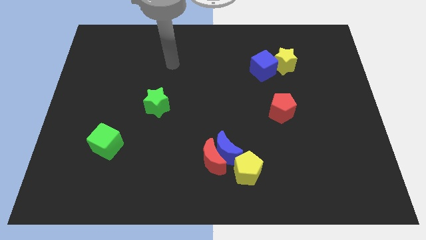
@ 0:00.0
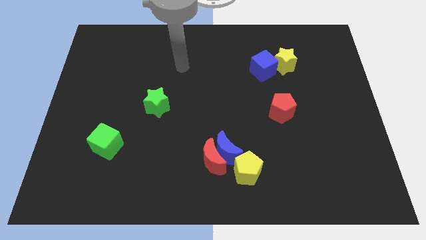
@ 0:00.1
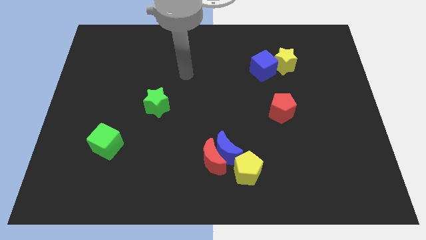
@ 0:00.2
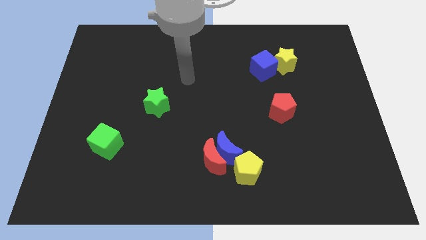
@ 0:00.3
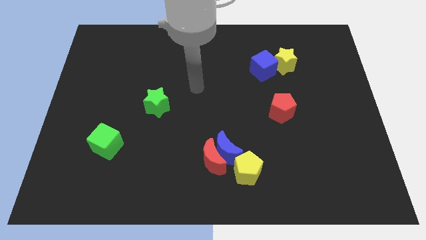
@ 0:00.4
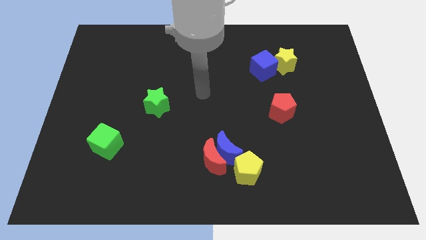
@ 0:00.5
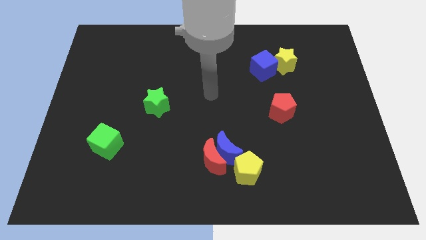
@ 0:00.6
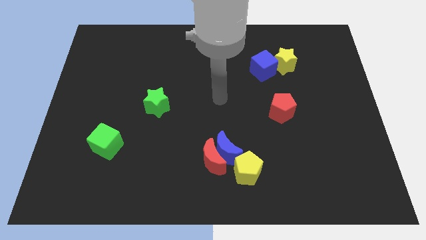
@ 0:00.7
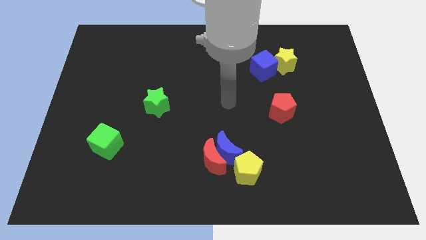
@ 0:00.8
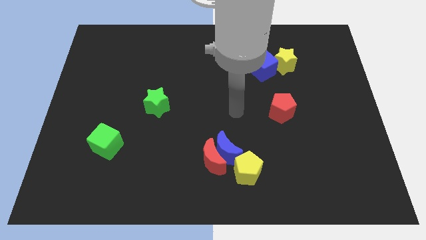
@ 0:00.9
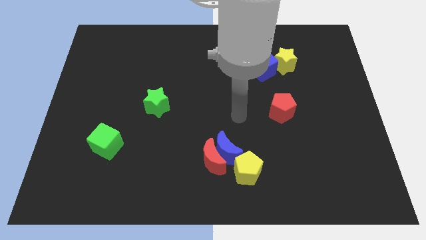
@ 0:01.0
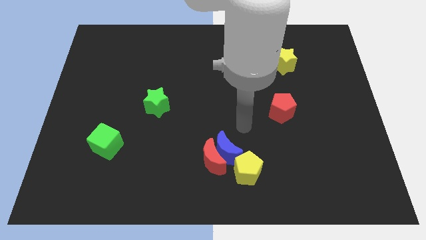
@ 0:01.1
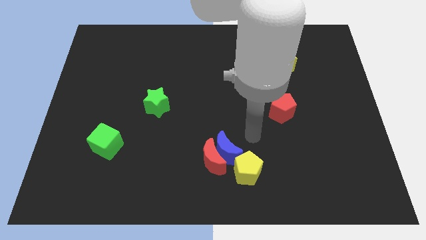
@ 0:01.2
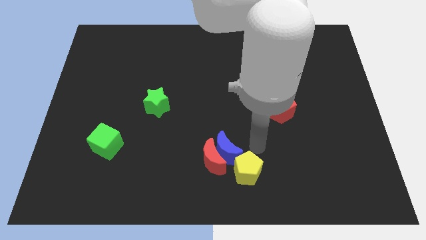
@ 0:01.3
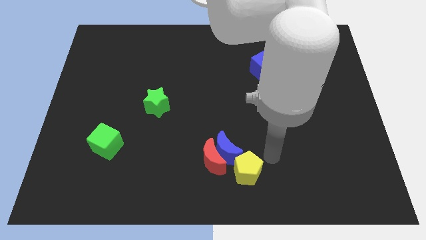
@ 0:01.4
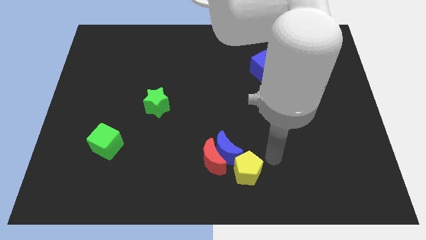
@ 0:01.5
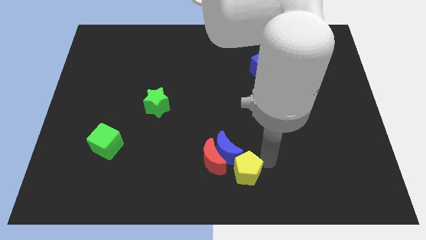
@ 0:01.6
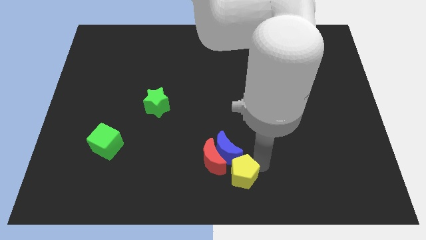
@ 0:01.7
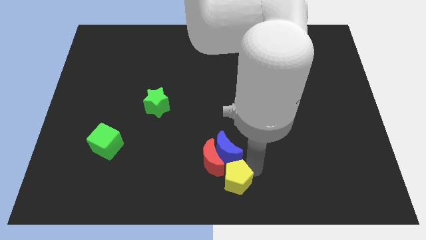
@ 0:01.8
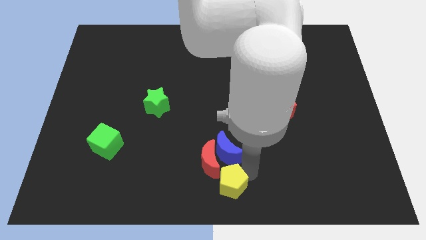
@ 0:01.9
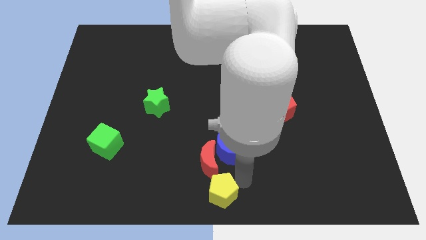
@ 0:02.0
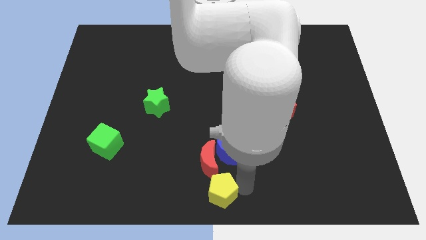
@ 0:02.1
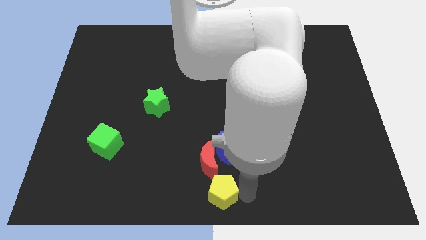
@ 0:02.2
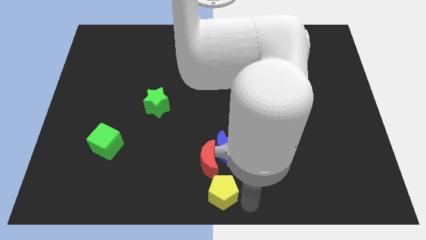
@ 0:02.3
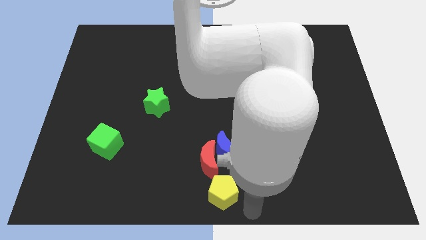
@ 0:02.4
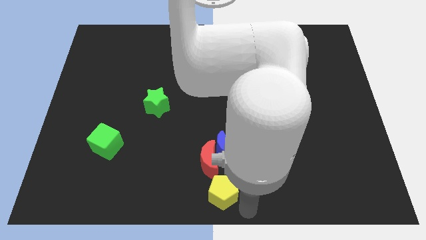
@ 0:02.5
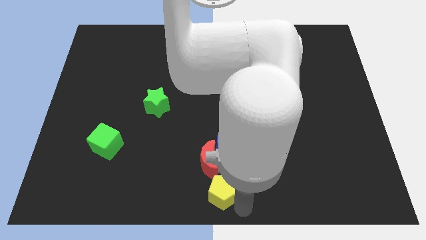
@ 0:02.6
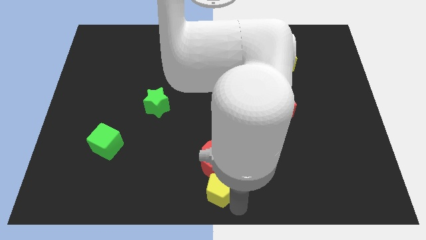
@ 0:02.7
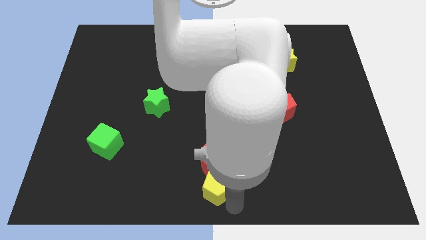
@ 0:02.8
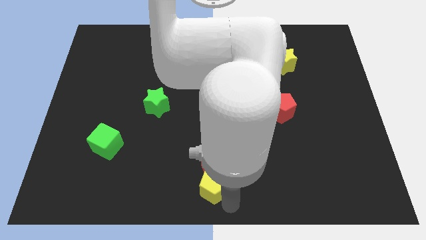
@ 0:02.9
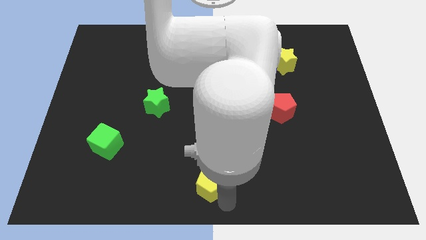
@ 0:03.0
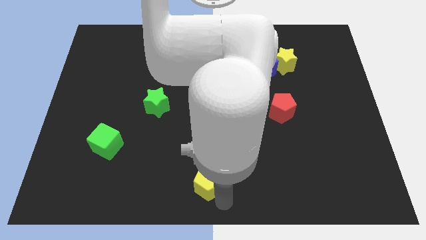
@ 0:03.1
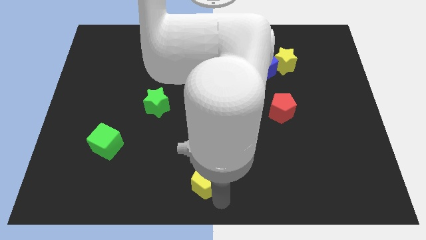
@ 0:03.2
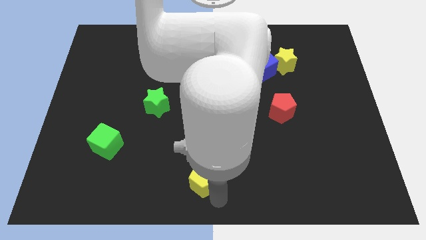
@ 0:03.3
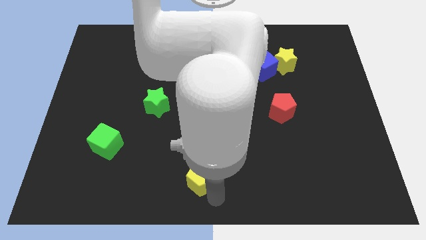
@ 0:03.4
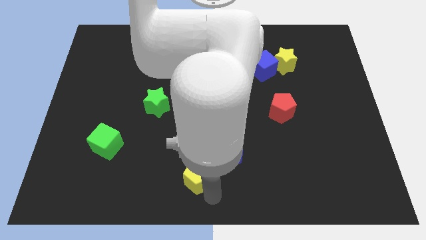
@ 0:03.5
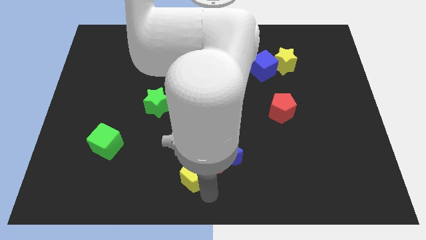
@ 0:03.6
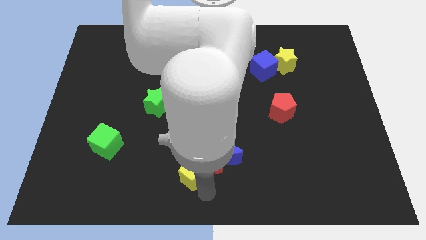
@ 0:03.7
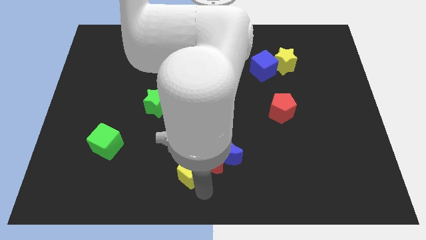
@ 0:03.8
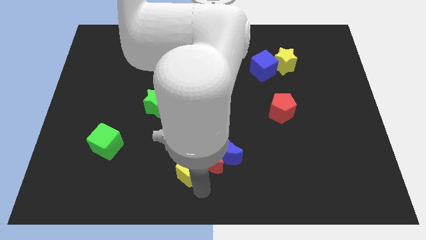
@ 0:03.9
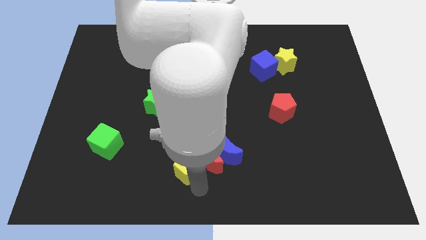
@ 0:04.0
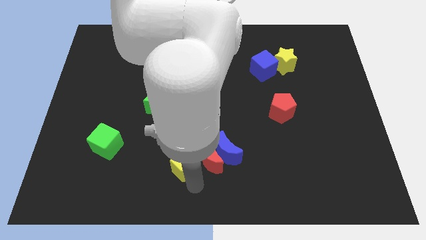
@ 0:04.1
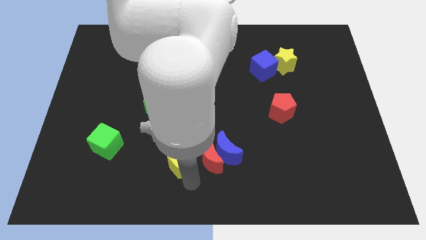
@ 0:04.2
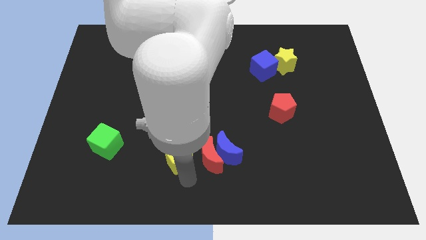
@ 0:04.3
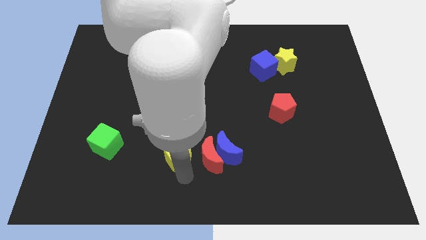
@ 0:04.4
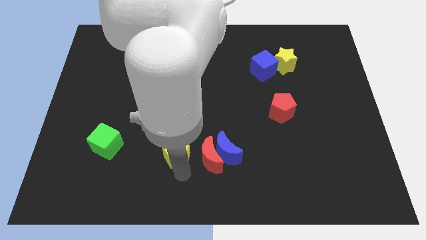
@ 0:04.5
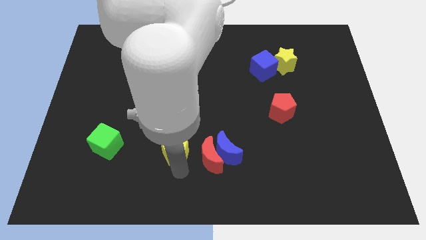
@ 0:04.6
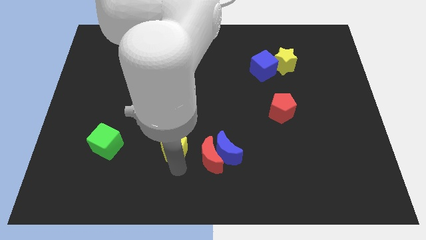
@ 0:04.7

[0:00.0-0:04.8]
push the yellow pentagon to the bottom side of the green star

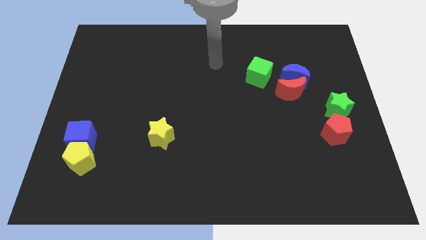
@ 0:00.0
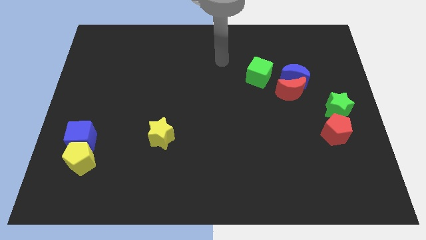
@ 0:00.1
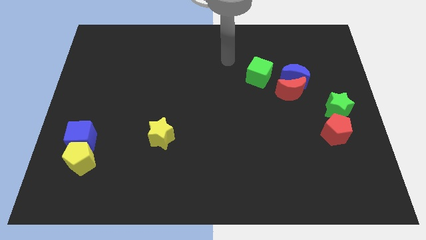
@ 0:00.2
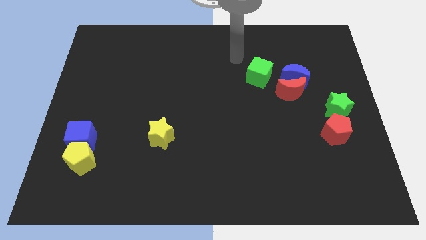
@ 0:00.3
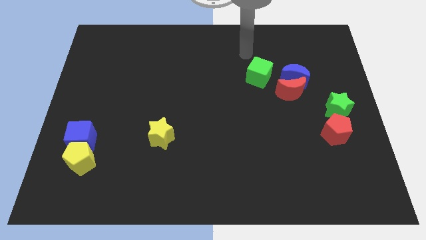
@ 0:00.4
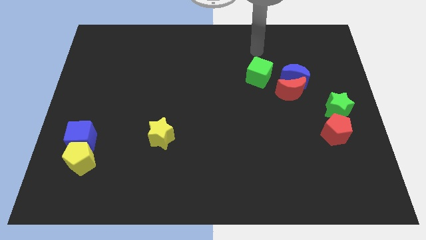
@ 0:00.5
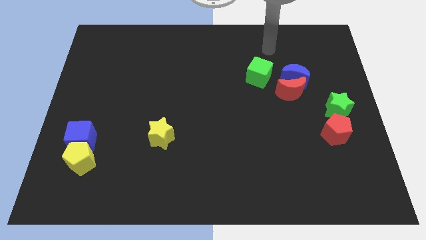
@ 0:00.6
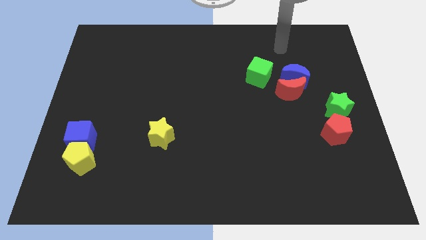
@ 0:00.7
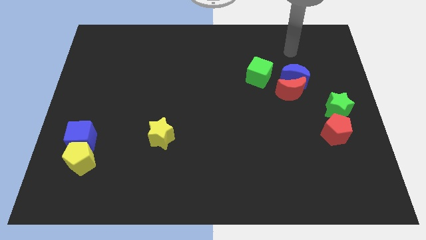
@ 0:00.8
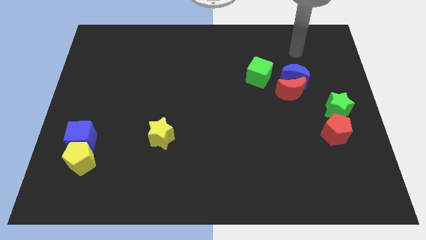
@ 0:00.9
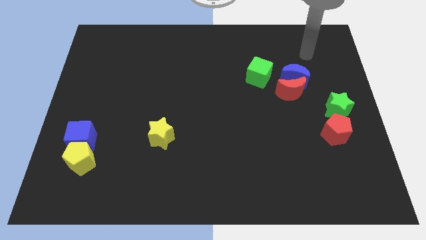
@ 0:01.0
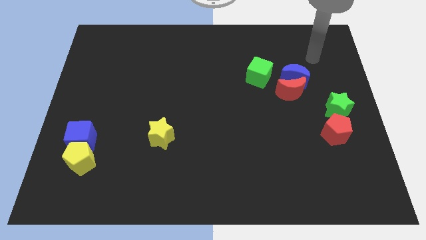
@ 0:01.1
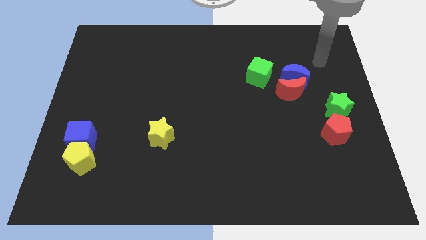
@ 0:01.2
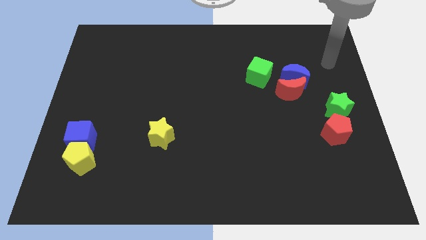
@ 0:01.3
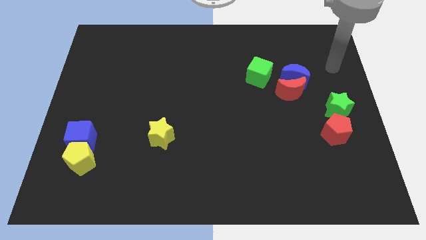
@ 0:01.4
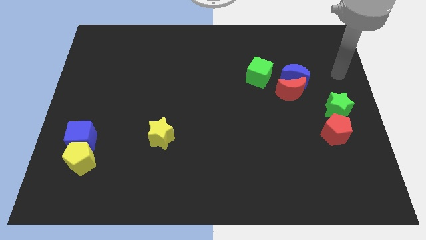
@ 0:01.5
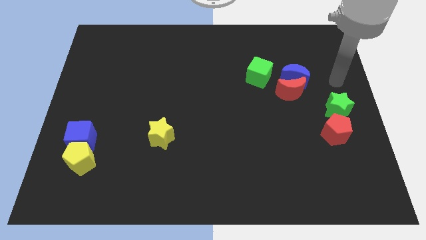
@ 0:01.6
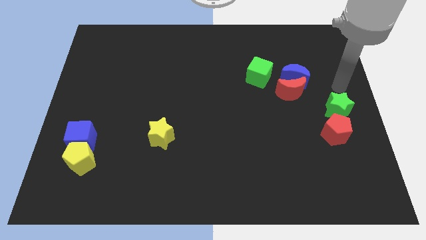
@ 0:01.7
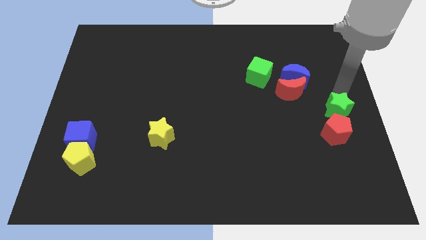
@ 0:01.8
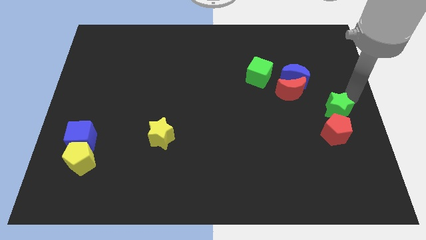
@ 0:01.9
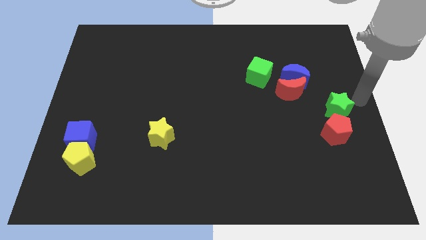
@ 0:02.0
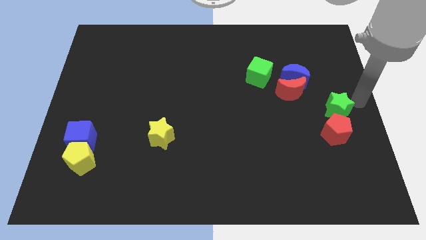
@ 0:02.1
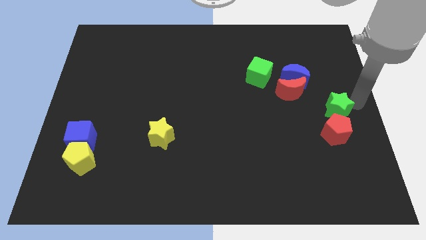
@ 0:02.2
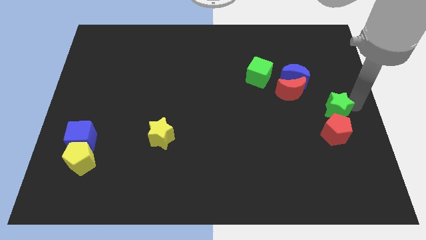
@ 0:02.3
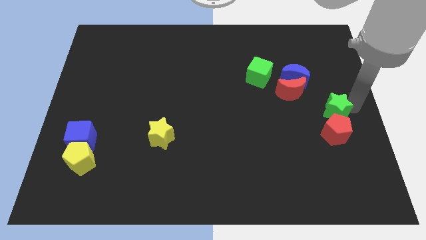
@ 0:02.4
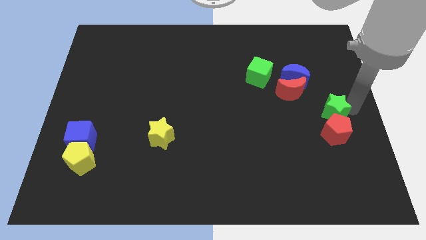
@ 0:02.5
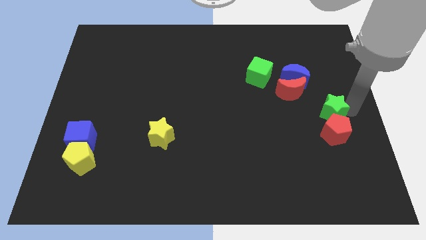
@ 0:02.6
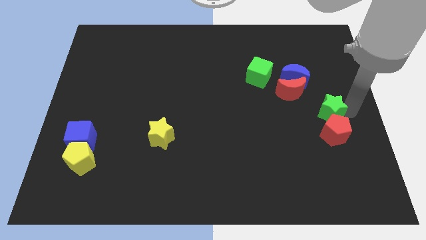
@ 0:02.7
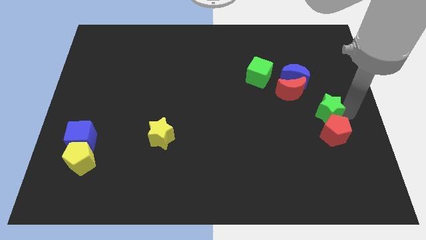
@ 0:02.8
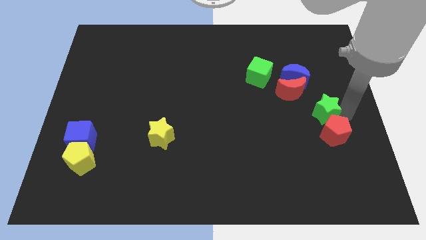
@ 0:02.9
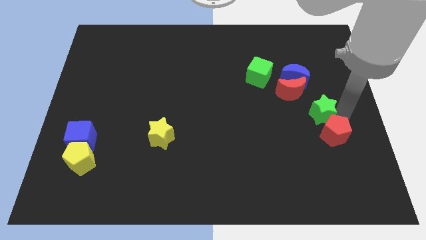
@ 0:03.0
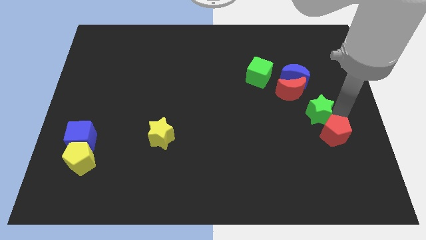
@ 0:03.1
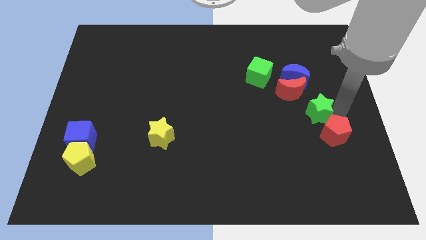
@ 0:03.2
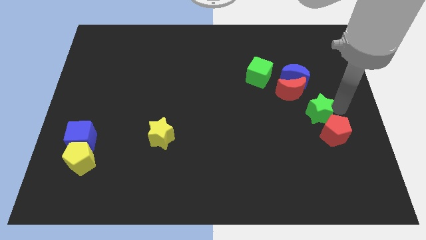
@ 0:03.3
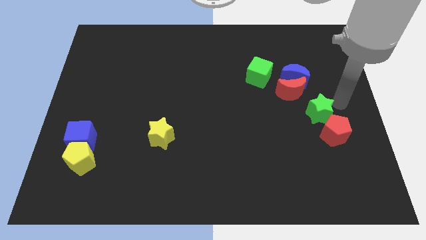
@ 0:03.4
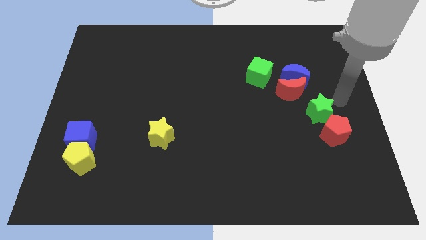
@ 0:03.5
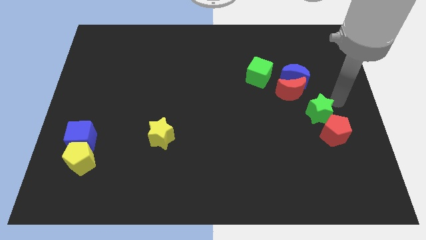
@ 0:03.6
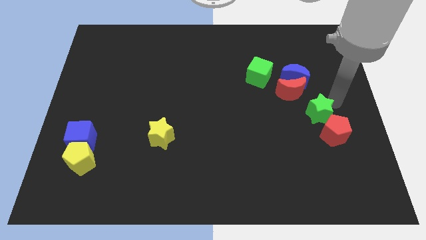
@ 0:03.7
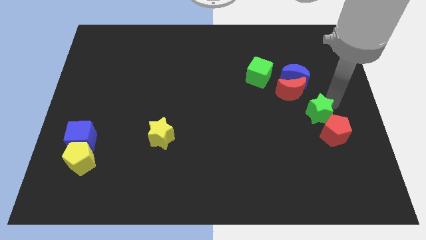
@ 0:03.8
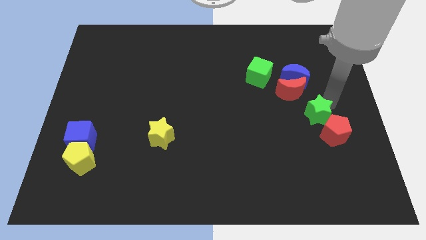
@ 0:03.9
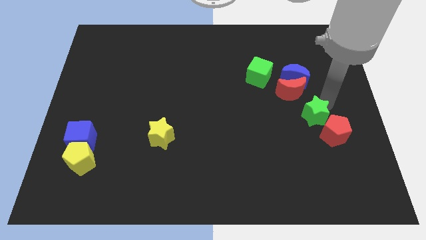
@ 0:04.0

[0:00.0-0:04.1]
move the green star to the bottom side of the red moon
